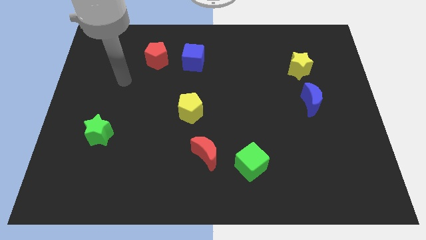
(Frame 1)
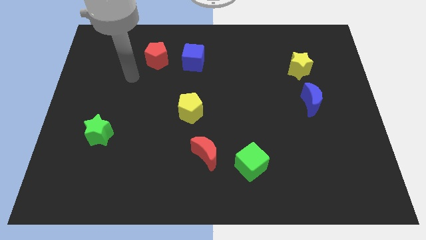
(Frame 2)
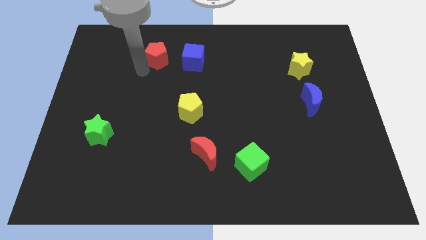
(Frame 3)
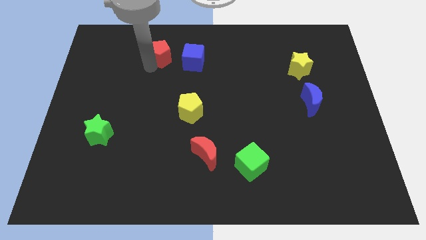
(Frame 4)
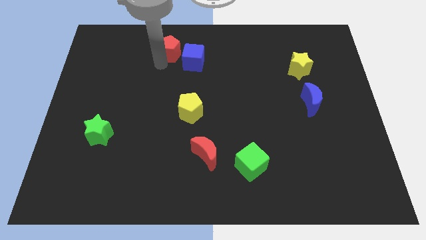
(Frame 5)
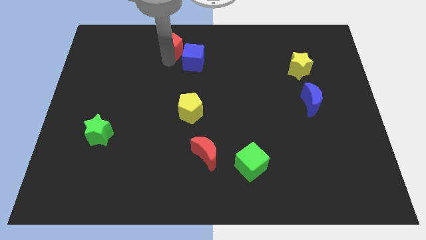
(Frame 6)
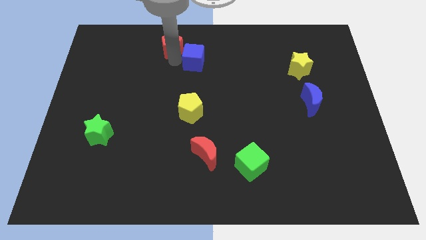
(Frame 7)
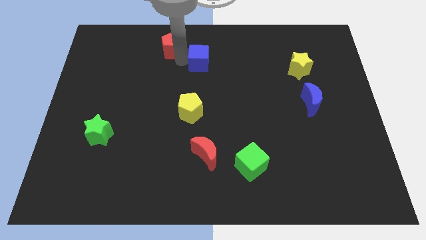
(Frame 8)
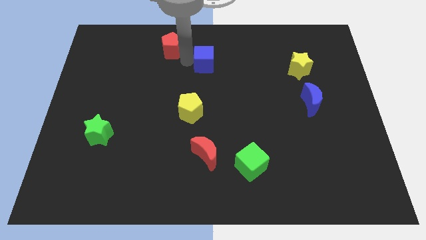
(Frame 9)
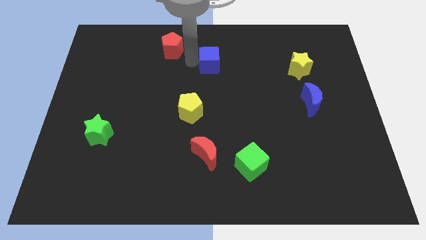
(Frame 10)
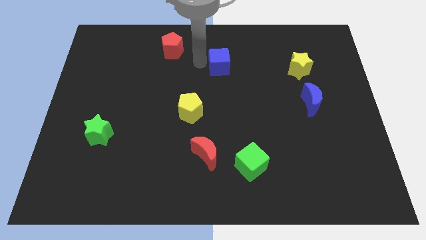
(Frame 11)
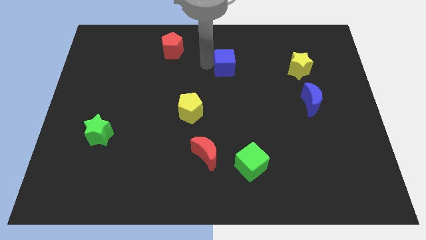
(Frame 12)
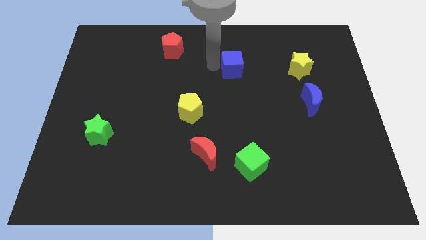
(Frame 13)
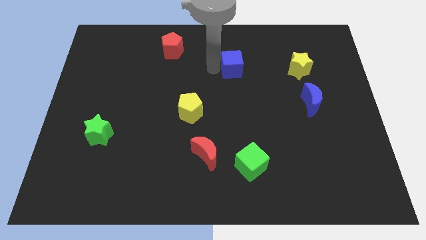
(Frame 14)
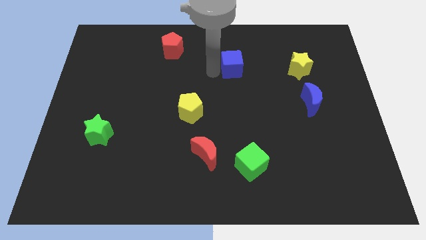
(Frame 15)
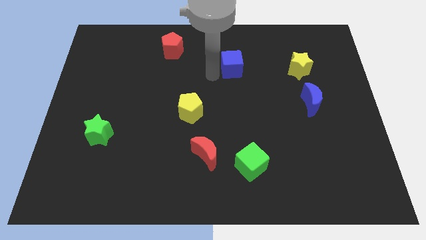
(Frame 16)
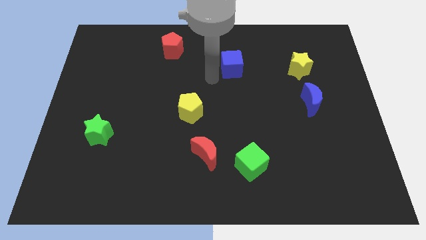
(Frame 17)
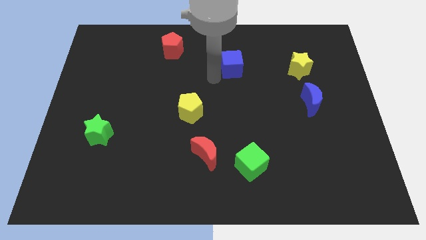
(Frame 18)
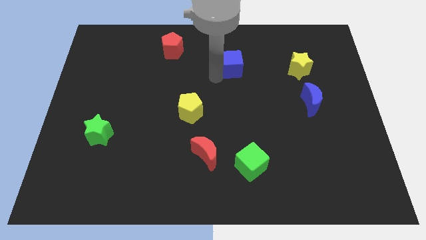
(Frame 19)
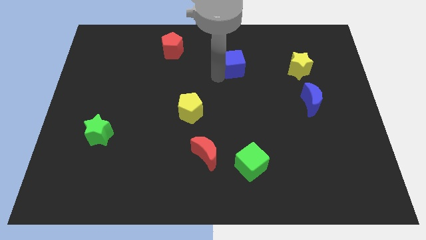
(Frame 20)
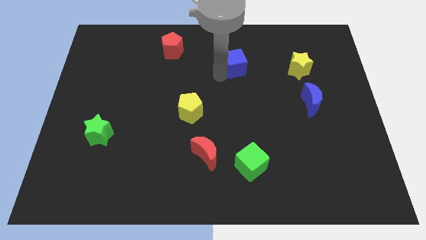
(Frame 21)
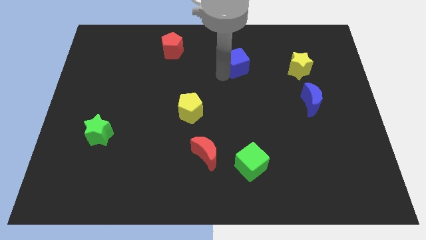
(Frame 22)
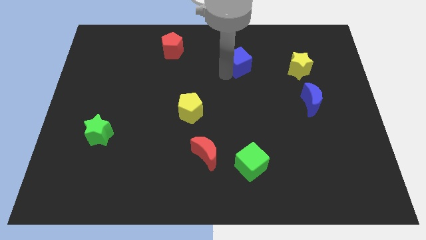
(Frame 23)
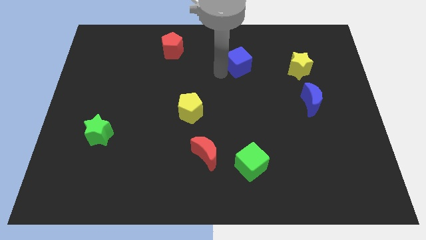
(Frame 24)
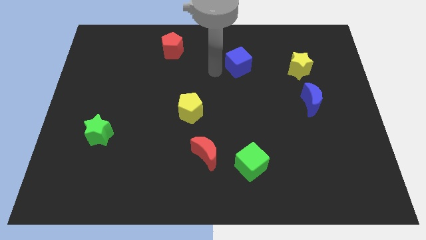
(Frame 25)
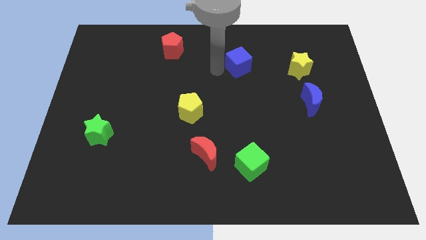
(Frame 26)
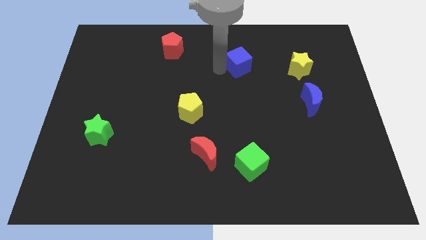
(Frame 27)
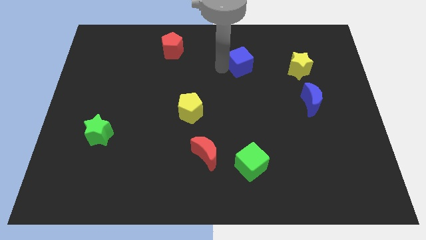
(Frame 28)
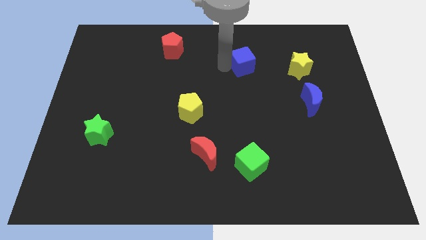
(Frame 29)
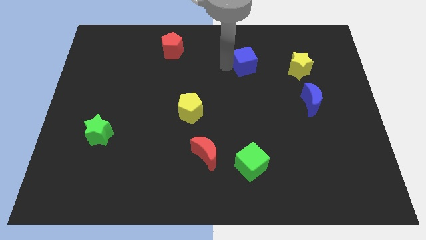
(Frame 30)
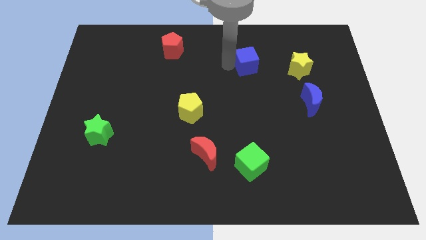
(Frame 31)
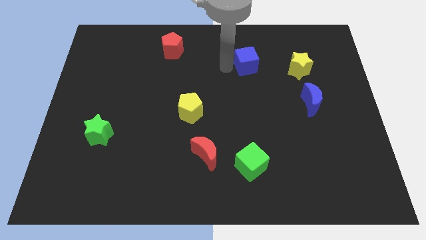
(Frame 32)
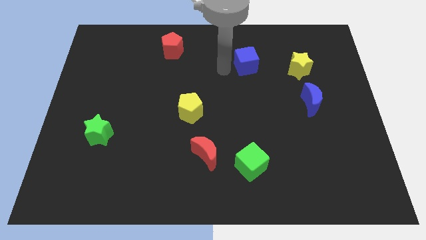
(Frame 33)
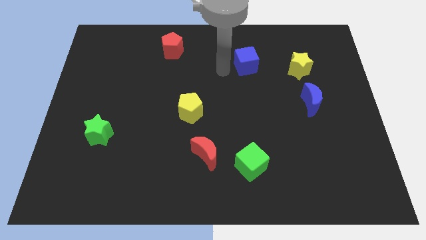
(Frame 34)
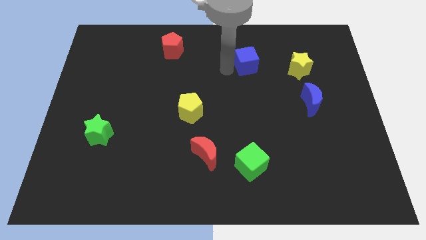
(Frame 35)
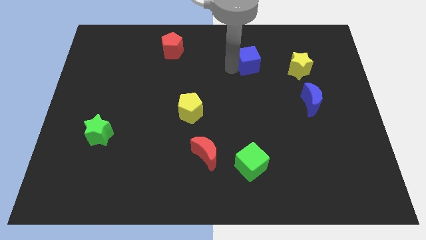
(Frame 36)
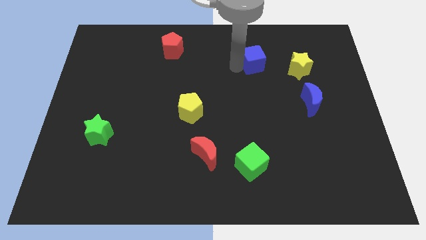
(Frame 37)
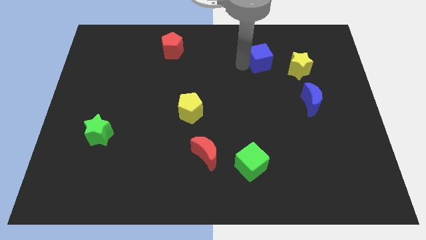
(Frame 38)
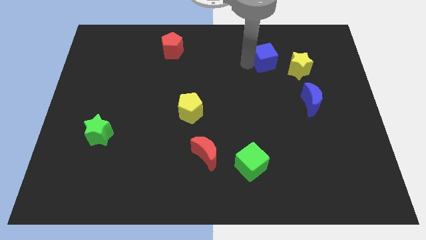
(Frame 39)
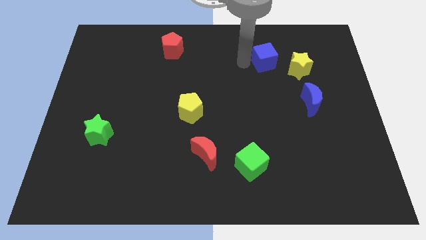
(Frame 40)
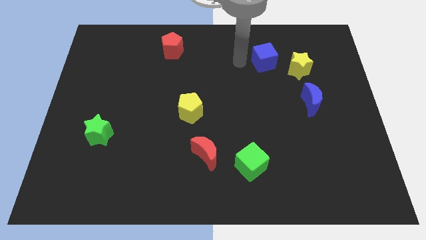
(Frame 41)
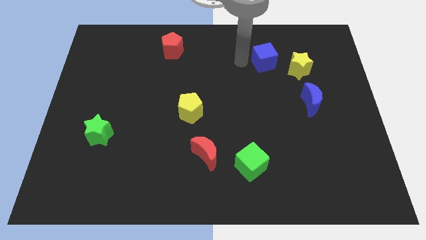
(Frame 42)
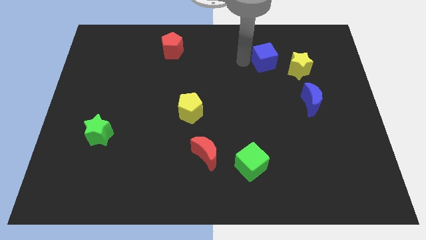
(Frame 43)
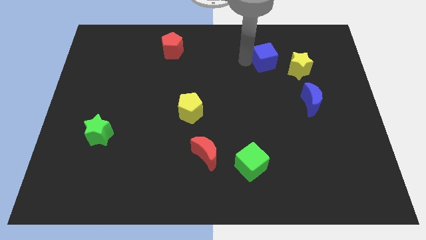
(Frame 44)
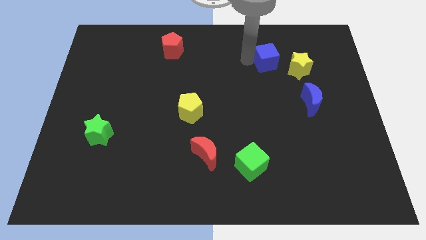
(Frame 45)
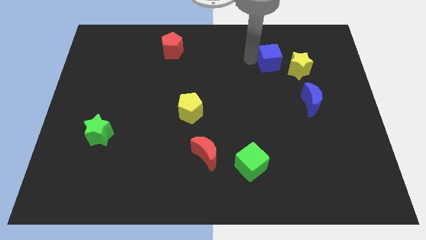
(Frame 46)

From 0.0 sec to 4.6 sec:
push the blue cube to the right

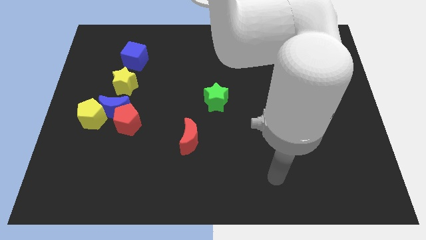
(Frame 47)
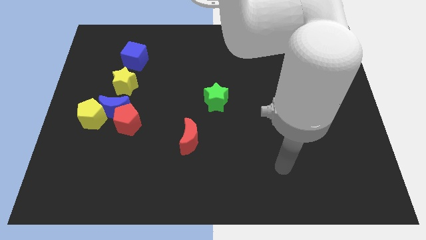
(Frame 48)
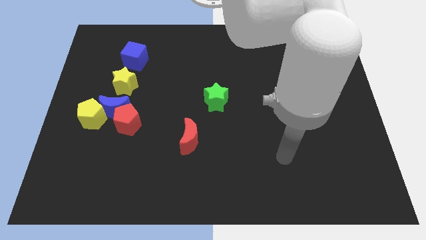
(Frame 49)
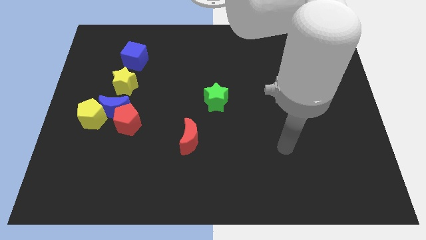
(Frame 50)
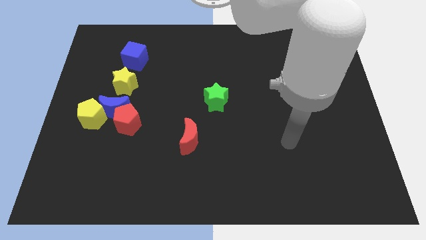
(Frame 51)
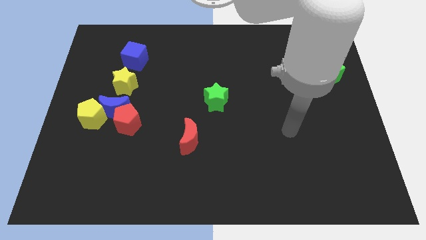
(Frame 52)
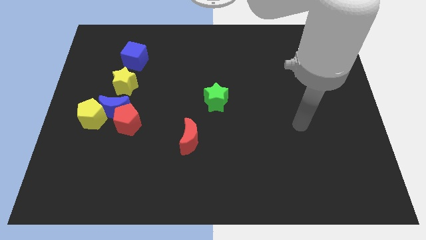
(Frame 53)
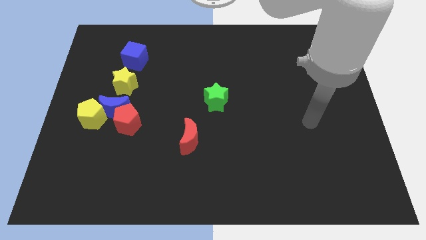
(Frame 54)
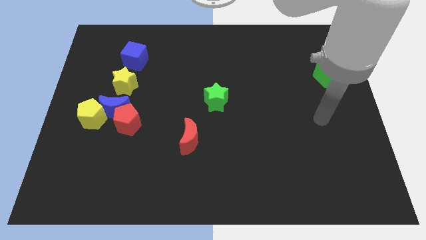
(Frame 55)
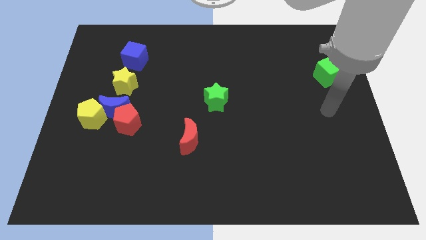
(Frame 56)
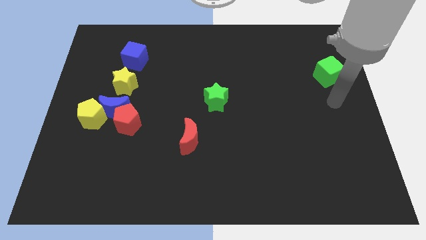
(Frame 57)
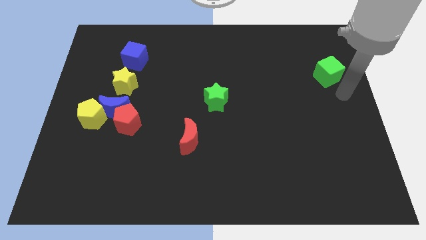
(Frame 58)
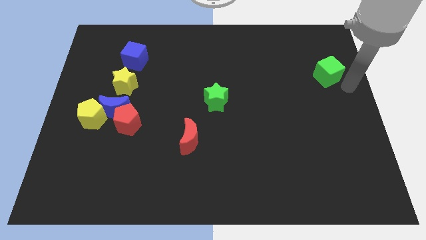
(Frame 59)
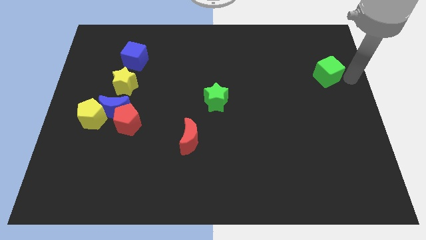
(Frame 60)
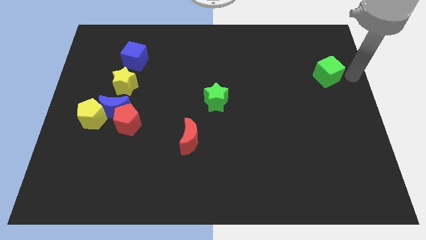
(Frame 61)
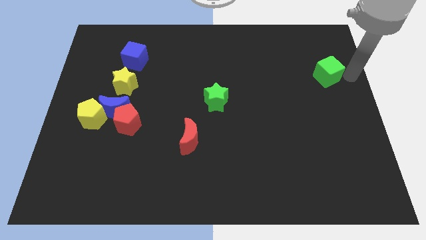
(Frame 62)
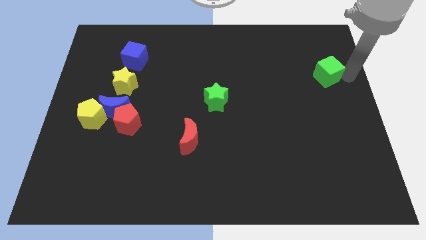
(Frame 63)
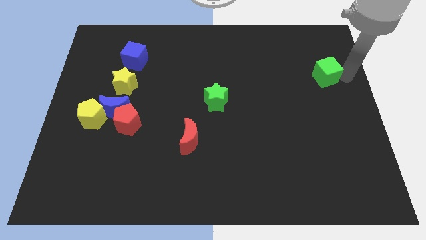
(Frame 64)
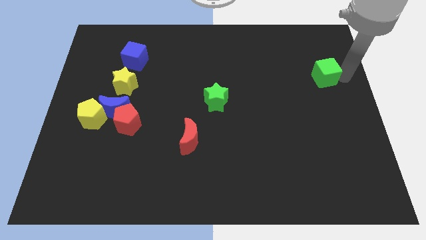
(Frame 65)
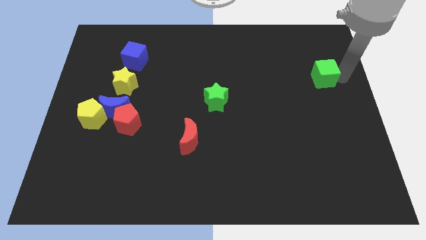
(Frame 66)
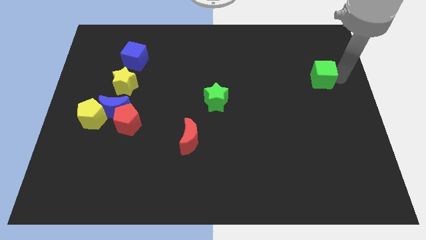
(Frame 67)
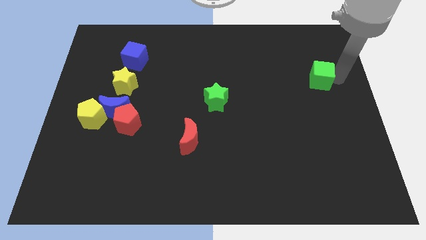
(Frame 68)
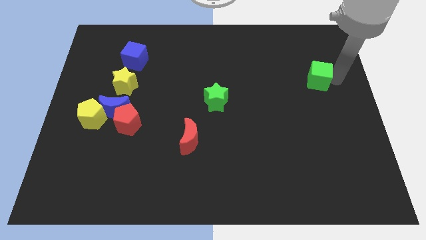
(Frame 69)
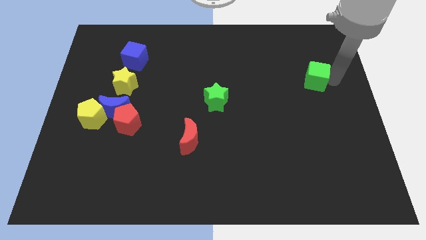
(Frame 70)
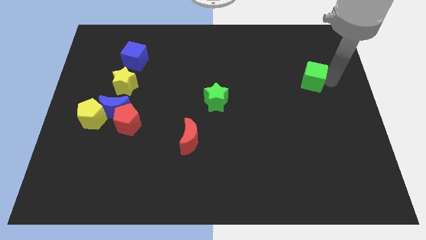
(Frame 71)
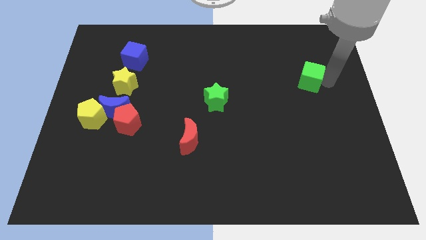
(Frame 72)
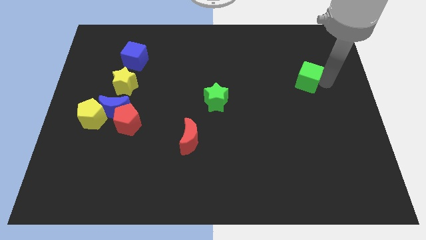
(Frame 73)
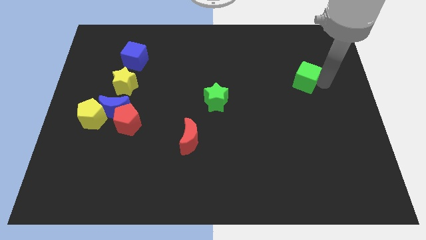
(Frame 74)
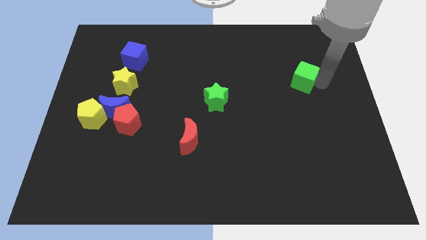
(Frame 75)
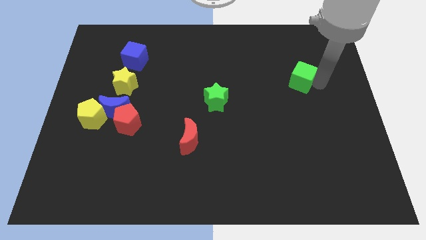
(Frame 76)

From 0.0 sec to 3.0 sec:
move the green cube to the left a little
